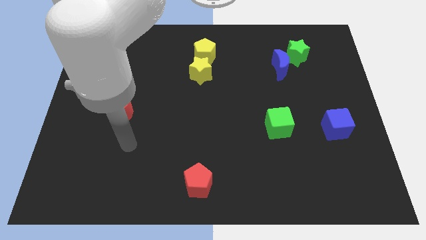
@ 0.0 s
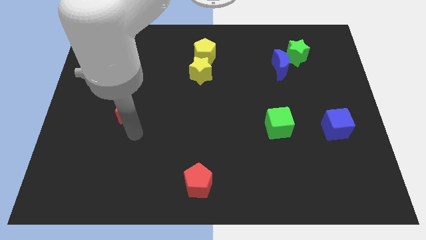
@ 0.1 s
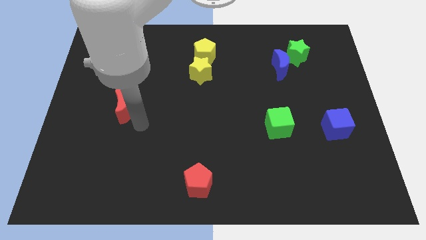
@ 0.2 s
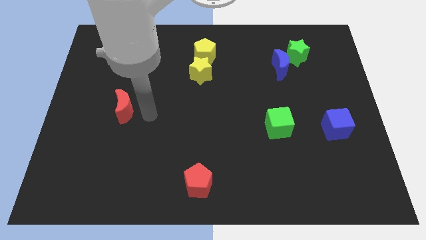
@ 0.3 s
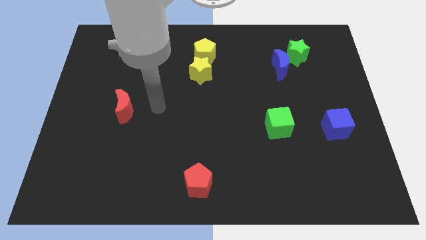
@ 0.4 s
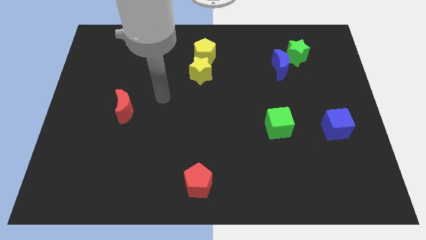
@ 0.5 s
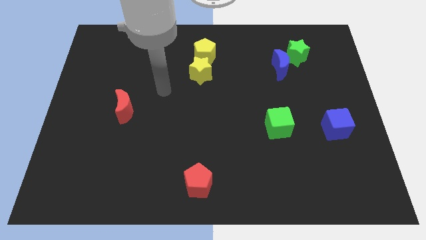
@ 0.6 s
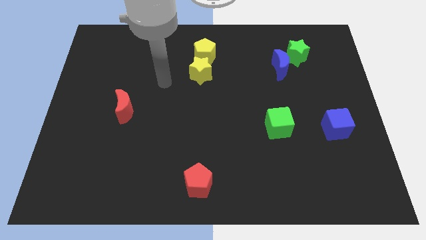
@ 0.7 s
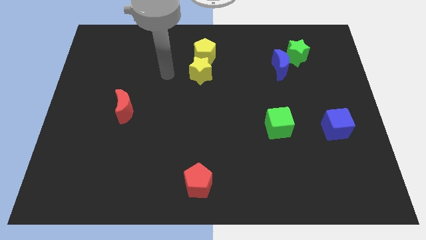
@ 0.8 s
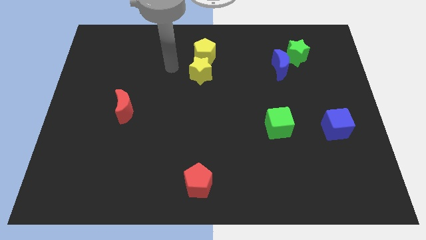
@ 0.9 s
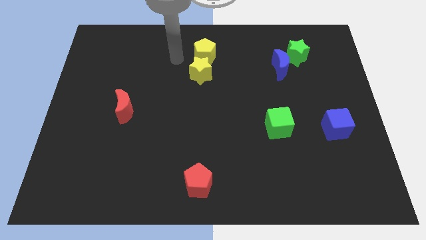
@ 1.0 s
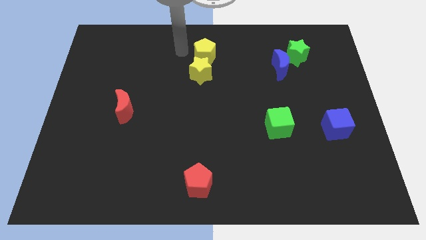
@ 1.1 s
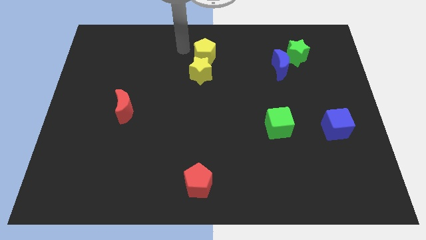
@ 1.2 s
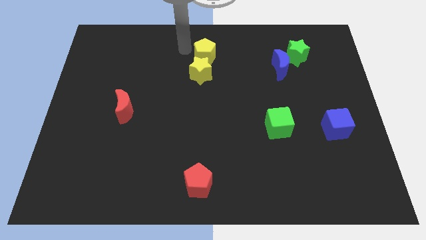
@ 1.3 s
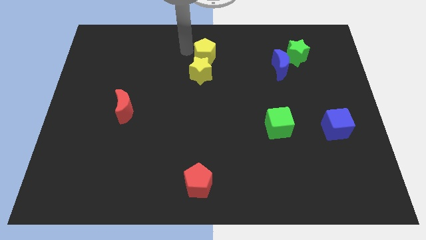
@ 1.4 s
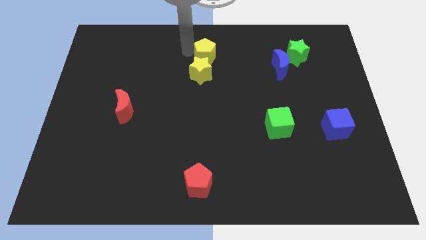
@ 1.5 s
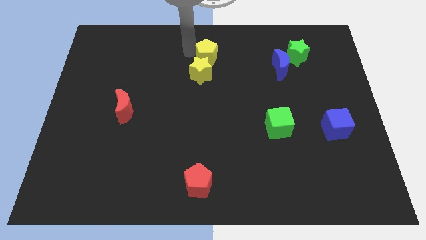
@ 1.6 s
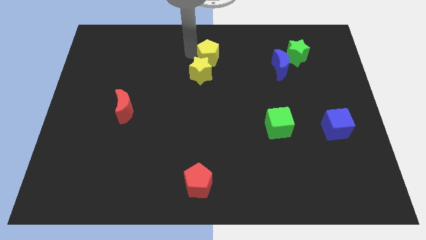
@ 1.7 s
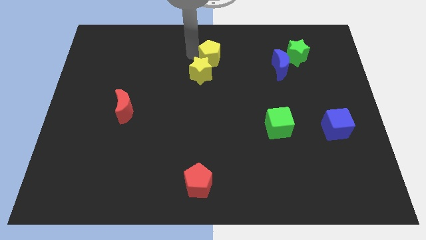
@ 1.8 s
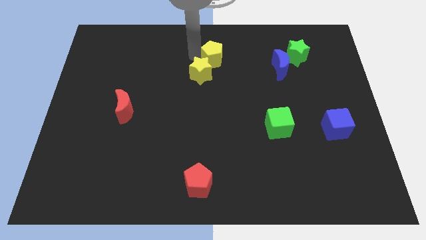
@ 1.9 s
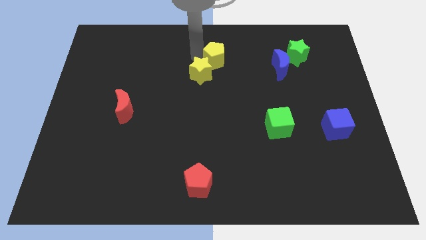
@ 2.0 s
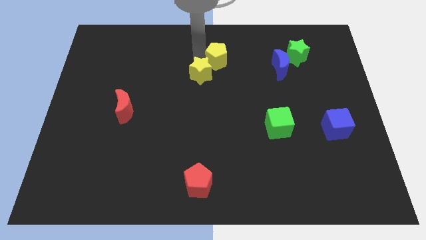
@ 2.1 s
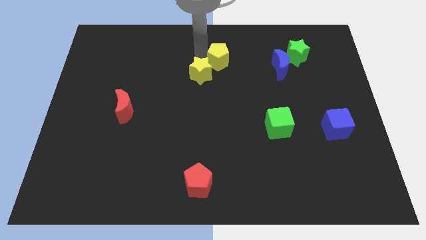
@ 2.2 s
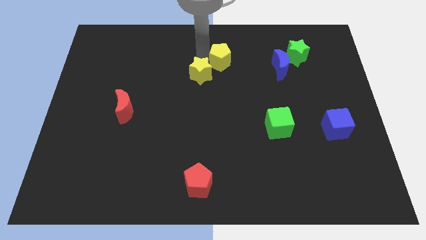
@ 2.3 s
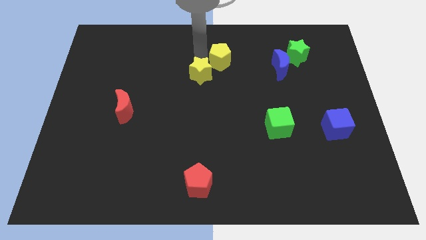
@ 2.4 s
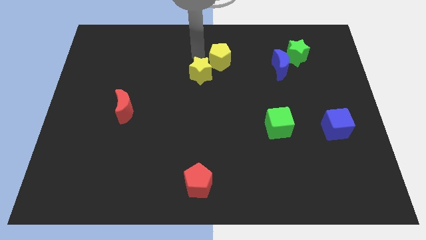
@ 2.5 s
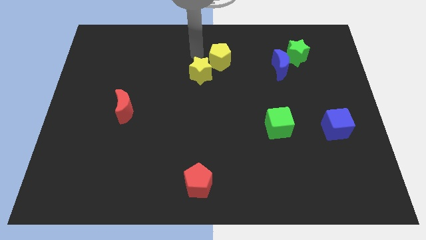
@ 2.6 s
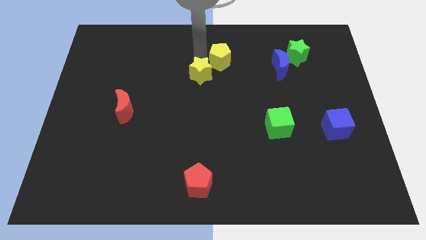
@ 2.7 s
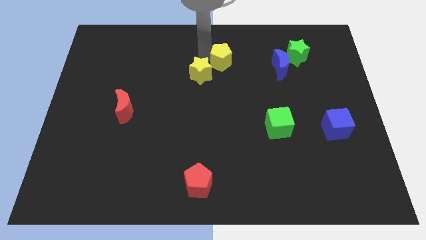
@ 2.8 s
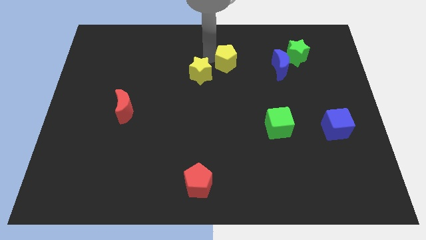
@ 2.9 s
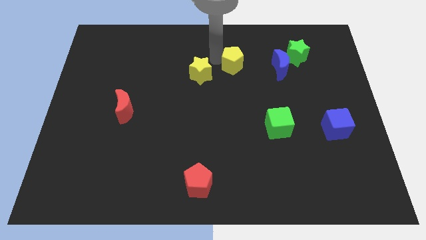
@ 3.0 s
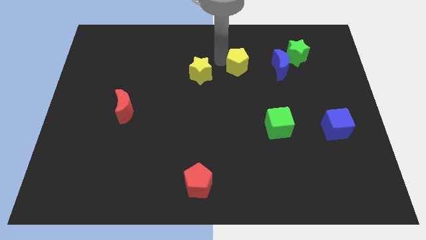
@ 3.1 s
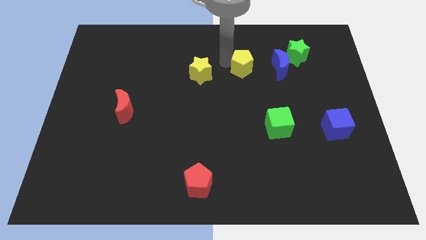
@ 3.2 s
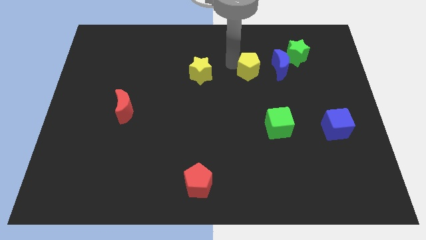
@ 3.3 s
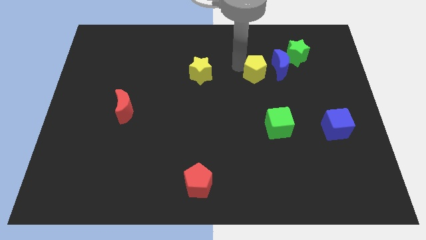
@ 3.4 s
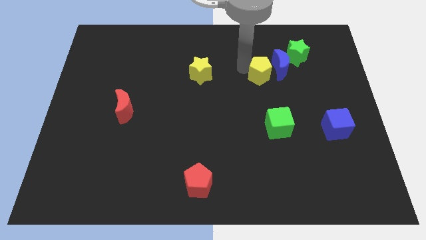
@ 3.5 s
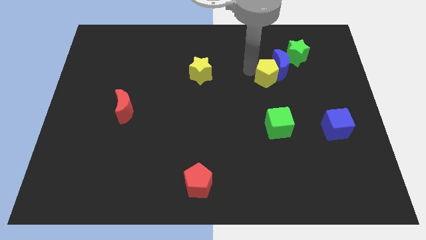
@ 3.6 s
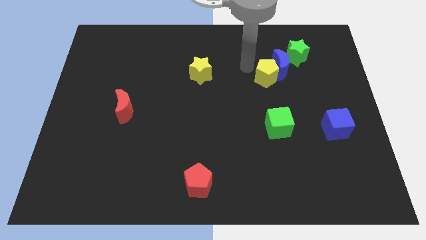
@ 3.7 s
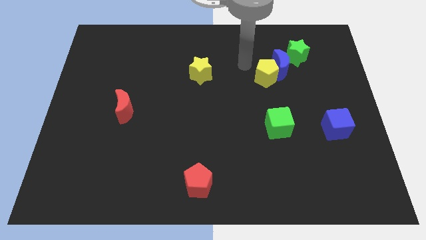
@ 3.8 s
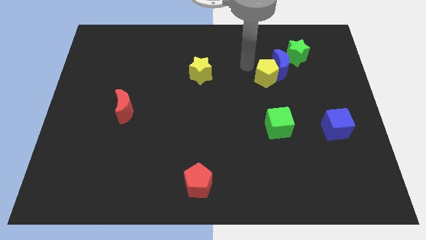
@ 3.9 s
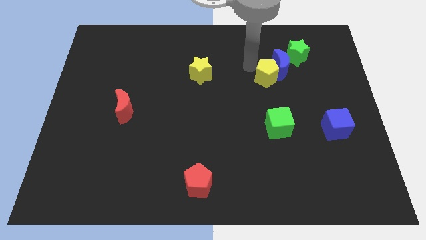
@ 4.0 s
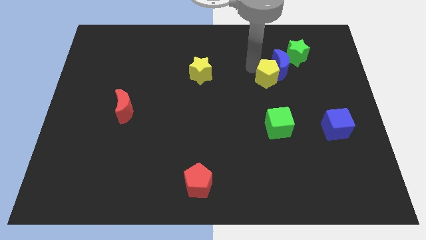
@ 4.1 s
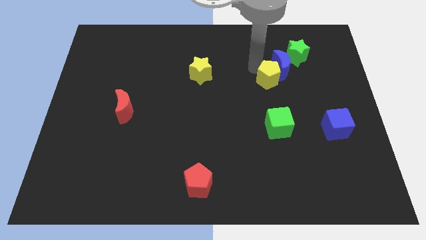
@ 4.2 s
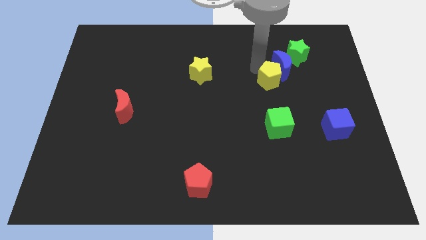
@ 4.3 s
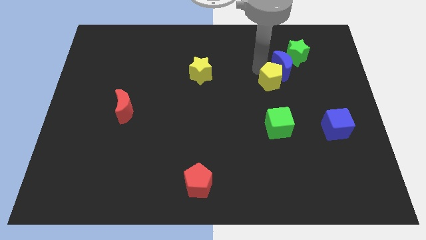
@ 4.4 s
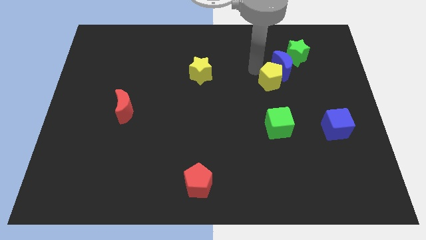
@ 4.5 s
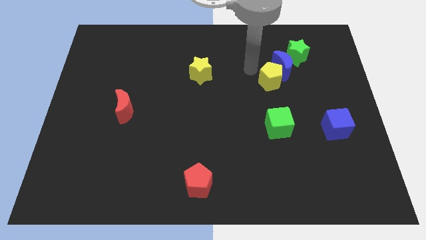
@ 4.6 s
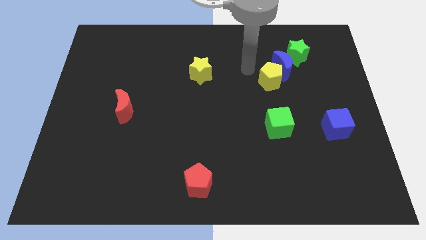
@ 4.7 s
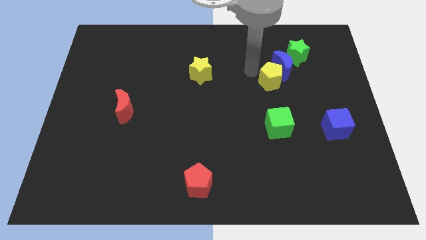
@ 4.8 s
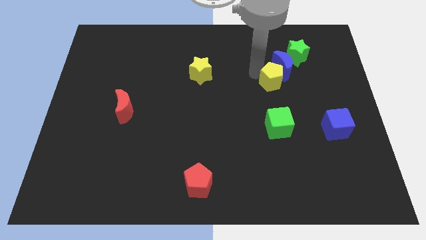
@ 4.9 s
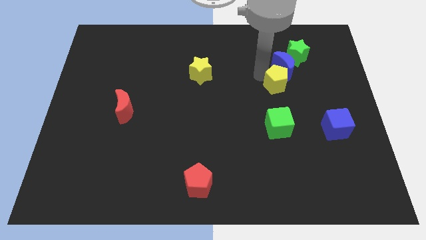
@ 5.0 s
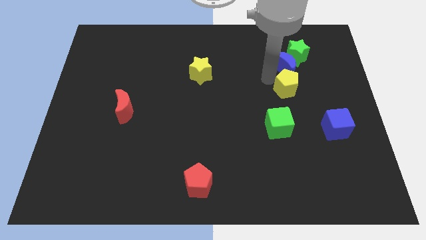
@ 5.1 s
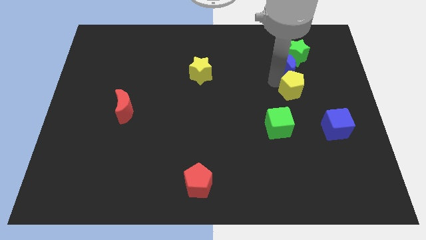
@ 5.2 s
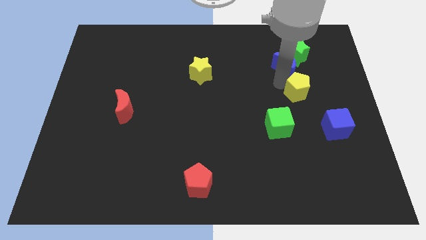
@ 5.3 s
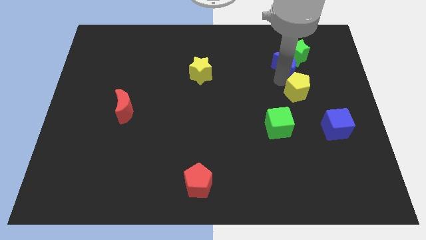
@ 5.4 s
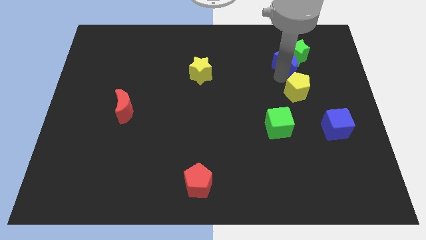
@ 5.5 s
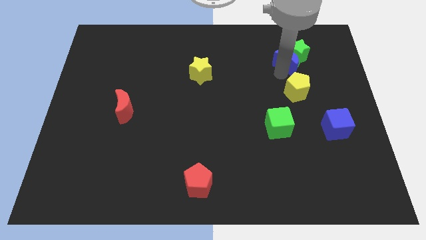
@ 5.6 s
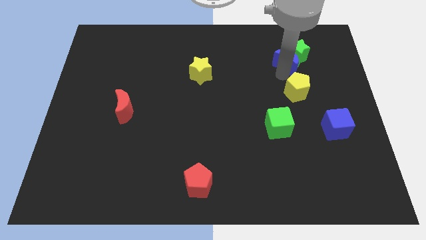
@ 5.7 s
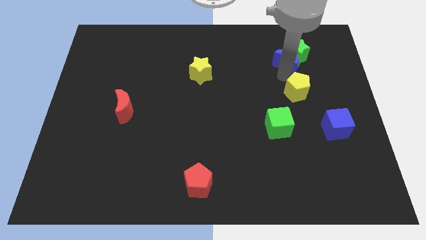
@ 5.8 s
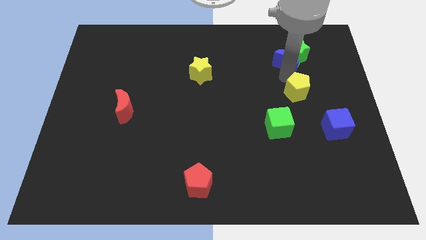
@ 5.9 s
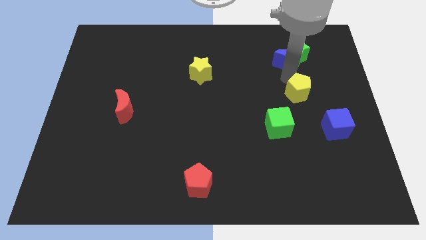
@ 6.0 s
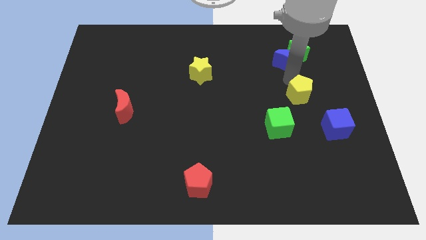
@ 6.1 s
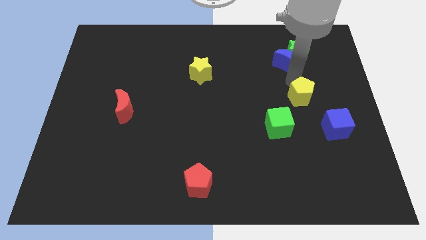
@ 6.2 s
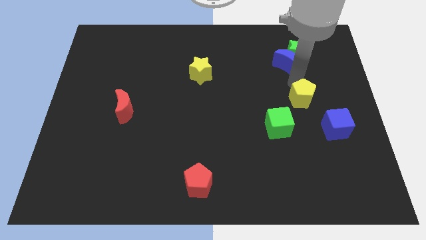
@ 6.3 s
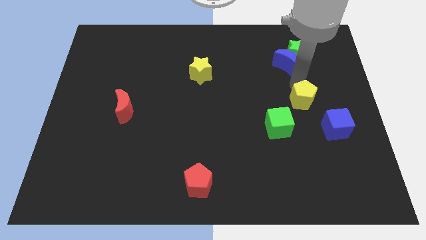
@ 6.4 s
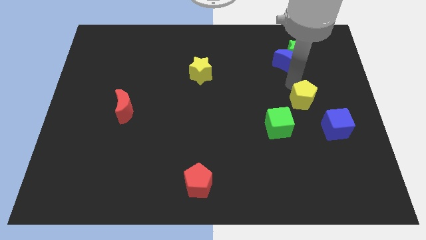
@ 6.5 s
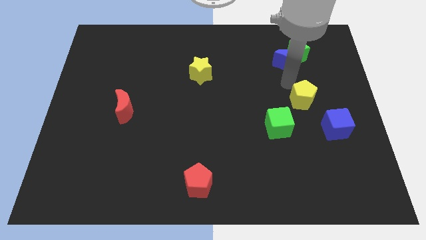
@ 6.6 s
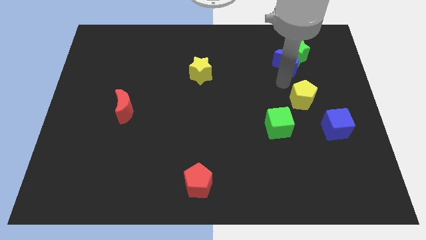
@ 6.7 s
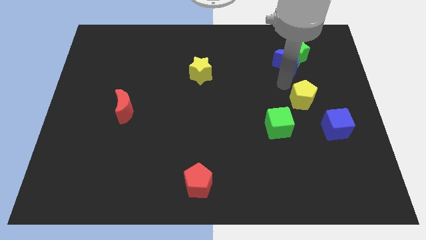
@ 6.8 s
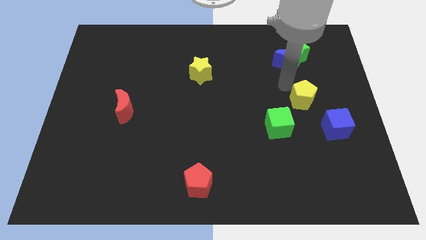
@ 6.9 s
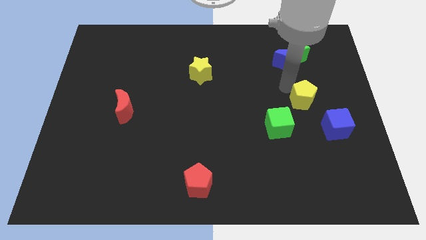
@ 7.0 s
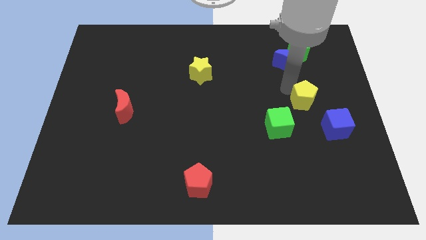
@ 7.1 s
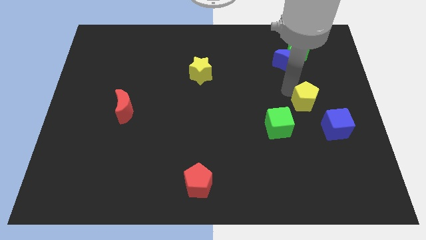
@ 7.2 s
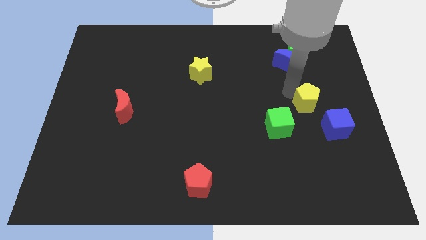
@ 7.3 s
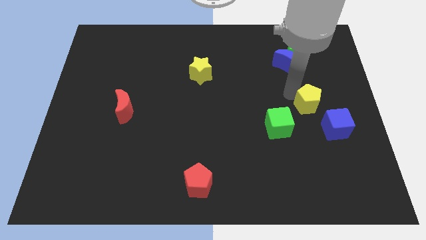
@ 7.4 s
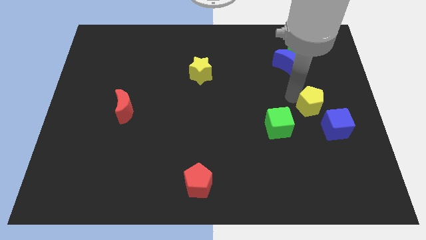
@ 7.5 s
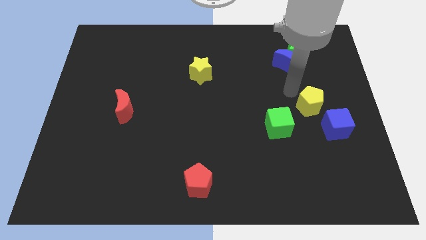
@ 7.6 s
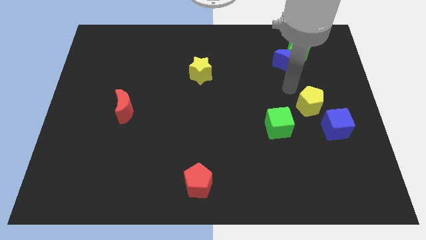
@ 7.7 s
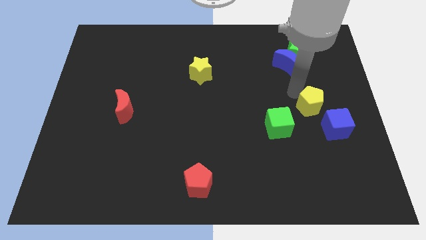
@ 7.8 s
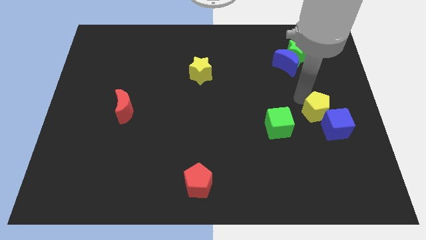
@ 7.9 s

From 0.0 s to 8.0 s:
move the yellow pentagon towards the blue cube
